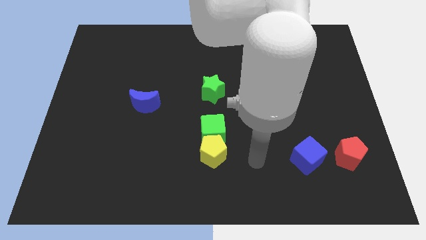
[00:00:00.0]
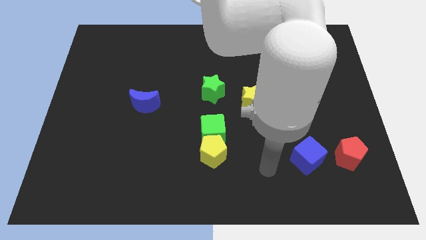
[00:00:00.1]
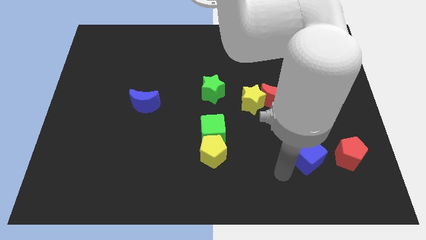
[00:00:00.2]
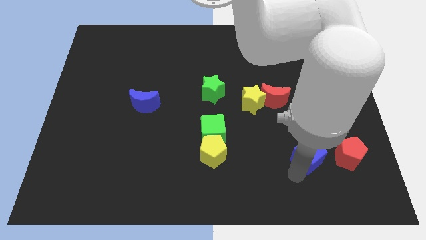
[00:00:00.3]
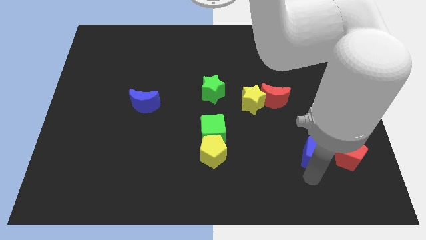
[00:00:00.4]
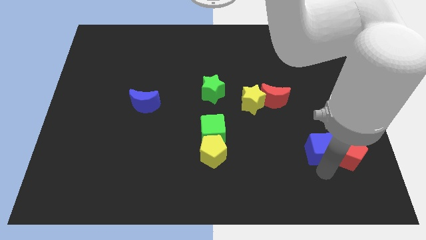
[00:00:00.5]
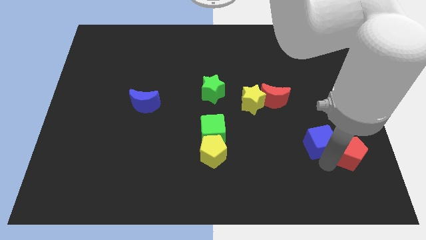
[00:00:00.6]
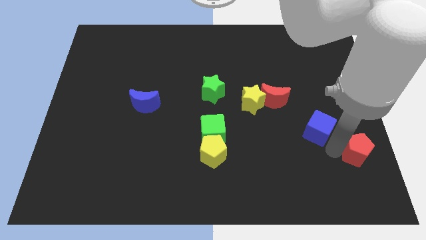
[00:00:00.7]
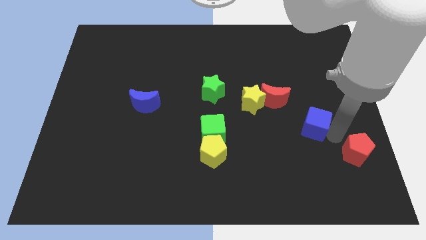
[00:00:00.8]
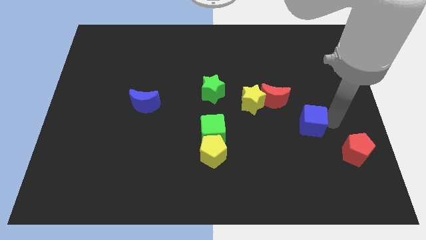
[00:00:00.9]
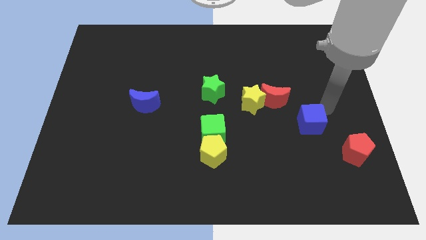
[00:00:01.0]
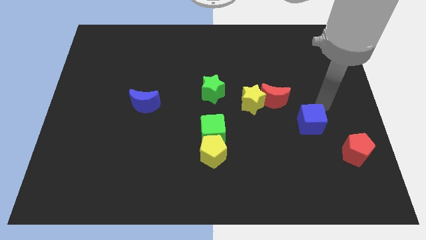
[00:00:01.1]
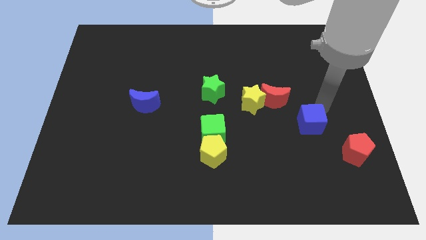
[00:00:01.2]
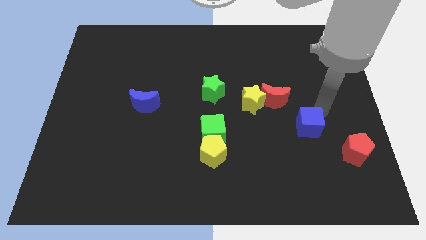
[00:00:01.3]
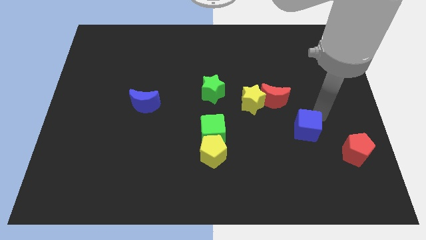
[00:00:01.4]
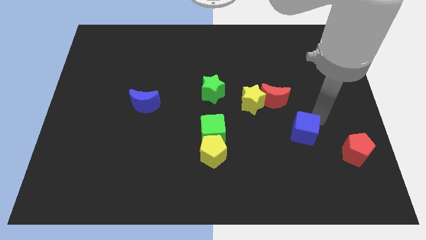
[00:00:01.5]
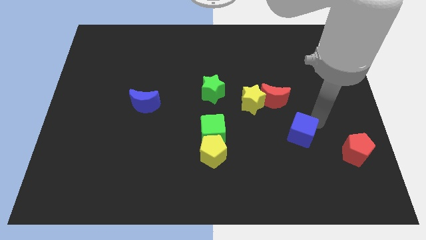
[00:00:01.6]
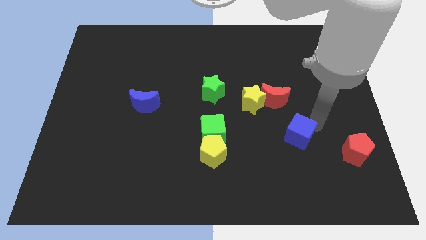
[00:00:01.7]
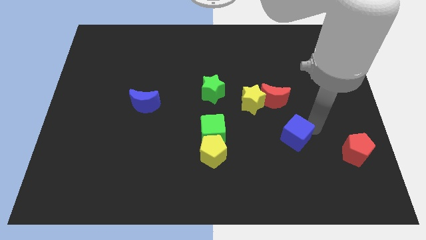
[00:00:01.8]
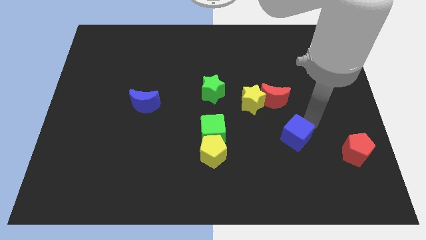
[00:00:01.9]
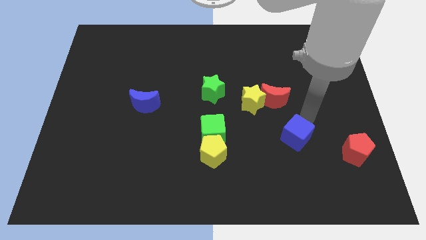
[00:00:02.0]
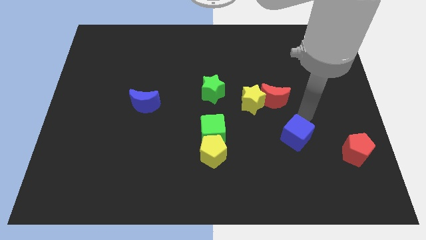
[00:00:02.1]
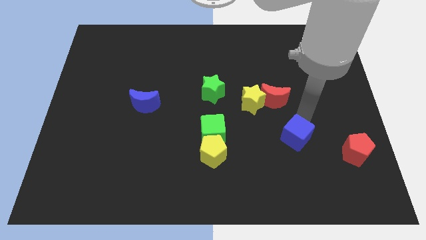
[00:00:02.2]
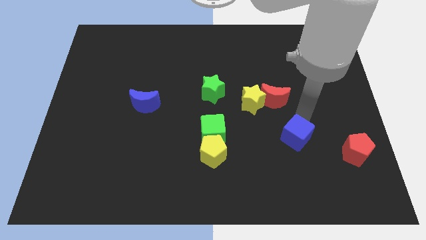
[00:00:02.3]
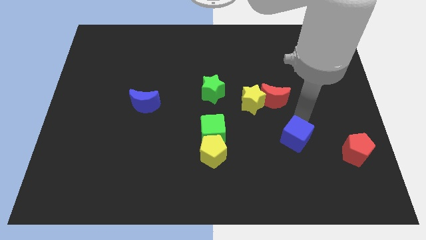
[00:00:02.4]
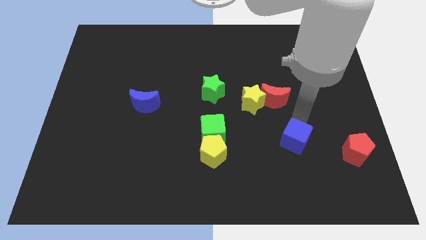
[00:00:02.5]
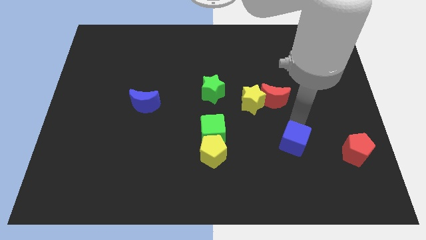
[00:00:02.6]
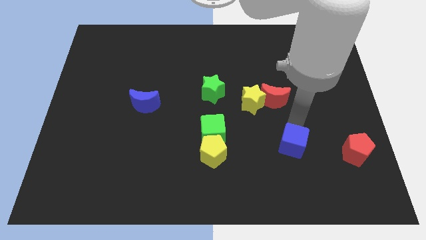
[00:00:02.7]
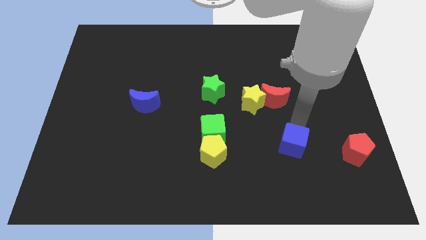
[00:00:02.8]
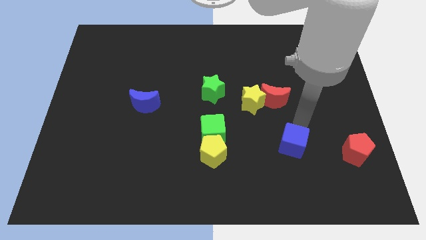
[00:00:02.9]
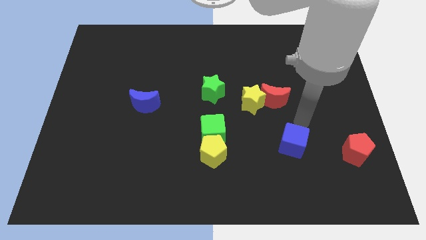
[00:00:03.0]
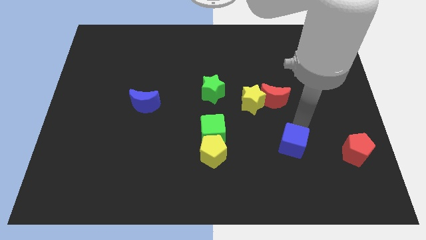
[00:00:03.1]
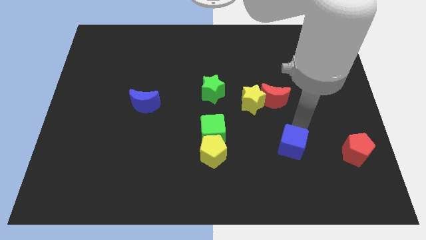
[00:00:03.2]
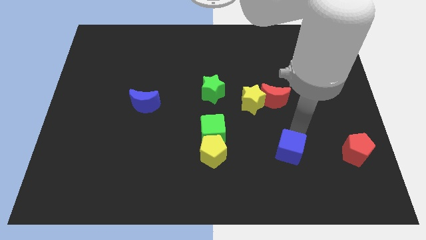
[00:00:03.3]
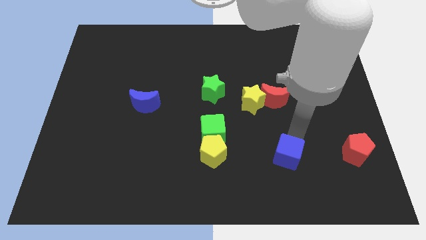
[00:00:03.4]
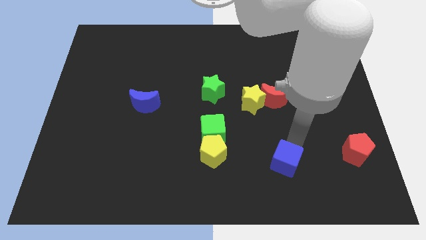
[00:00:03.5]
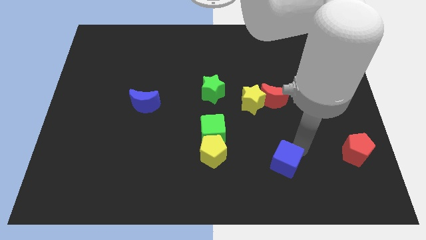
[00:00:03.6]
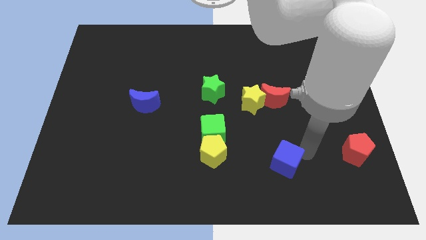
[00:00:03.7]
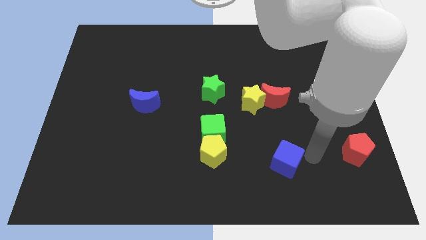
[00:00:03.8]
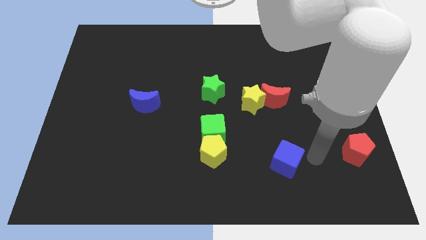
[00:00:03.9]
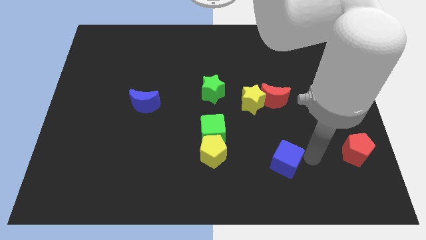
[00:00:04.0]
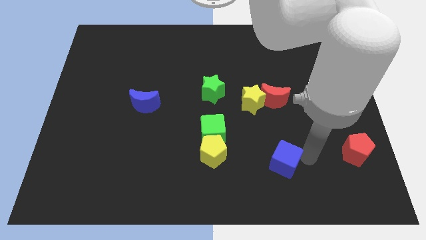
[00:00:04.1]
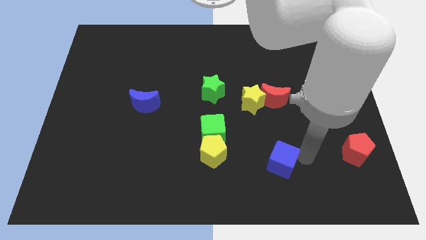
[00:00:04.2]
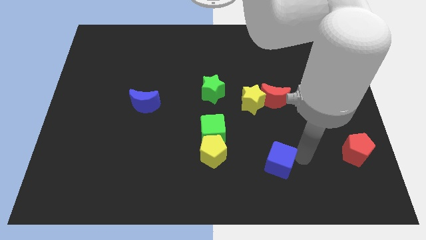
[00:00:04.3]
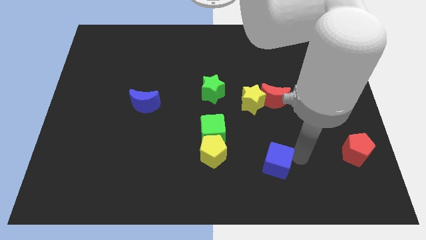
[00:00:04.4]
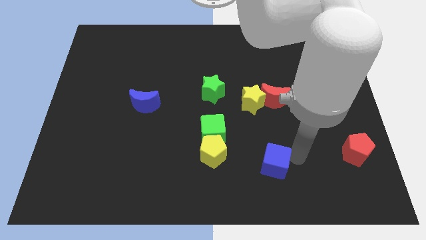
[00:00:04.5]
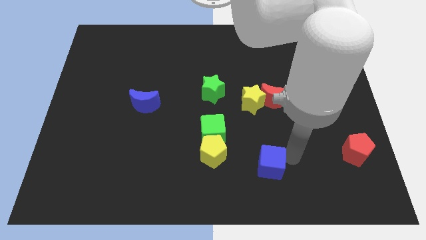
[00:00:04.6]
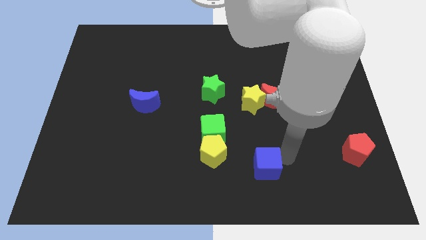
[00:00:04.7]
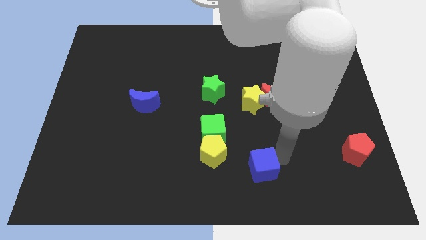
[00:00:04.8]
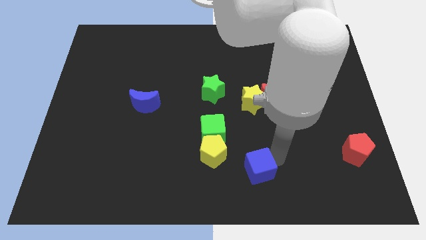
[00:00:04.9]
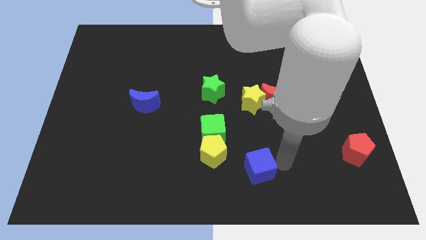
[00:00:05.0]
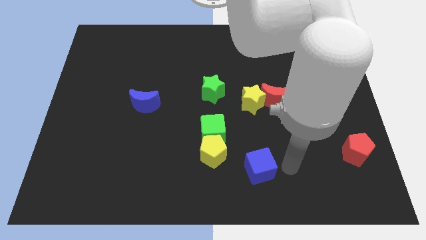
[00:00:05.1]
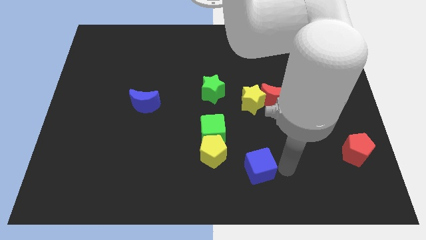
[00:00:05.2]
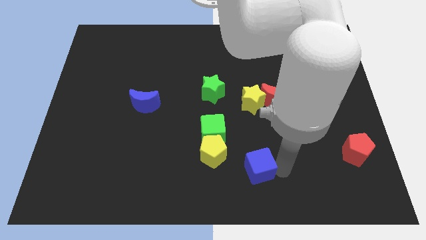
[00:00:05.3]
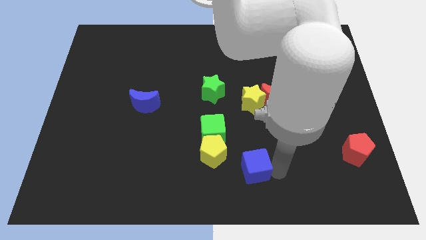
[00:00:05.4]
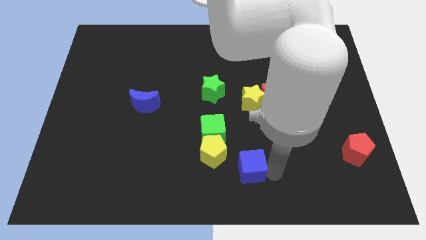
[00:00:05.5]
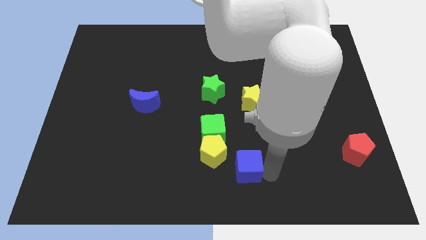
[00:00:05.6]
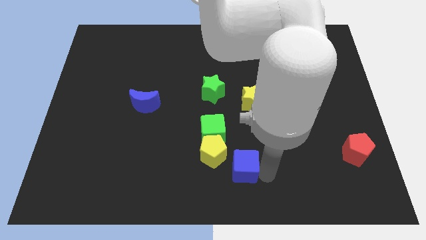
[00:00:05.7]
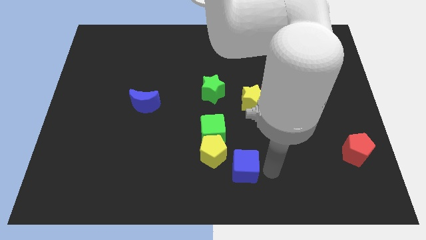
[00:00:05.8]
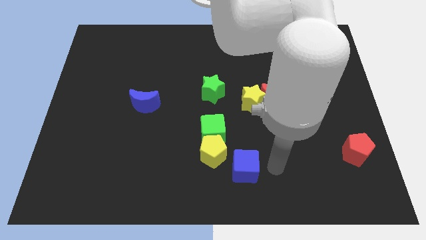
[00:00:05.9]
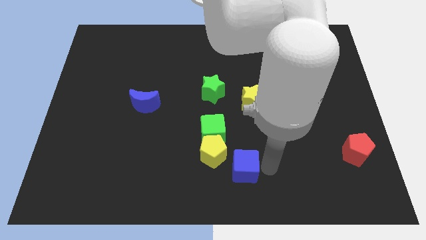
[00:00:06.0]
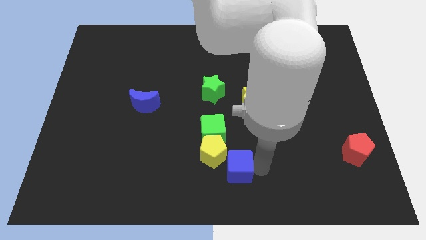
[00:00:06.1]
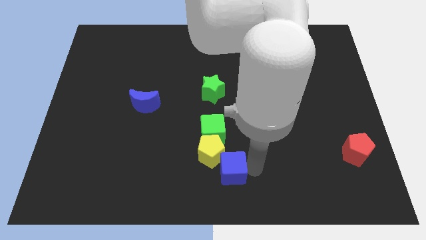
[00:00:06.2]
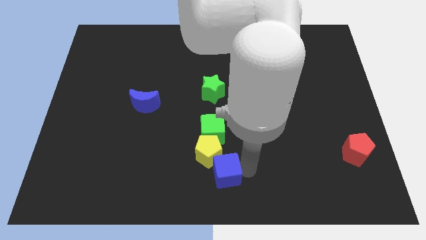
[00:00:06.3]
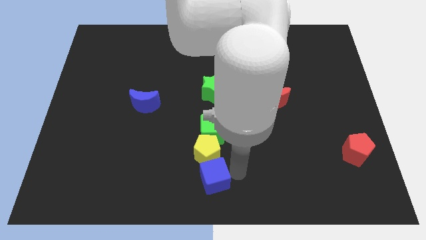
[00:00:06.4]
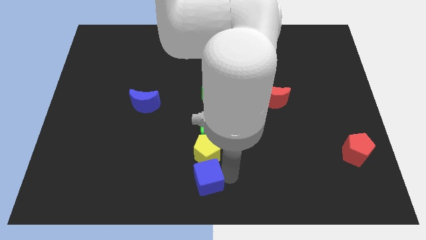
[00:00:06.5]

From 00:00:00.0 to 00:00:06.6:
push the blue cube to the bottom left side of the yellow pentagon
